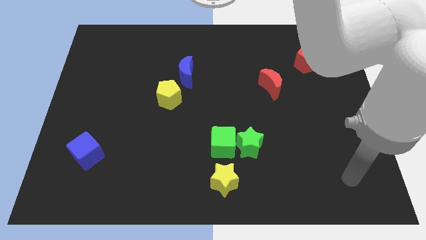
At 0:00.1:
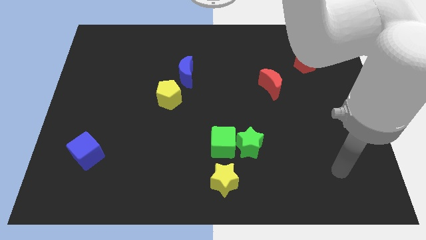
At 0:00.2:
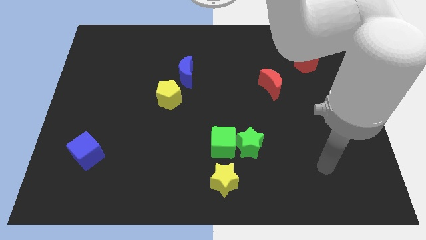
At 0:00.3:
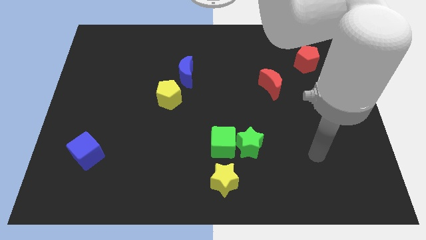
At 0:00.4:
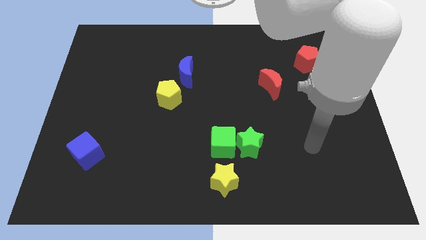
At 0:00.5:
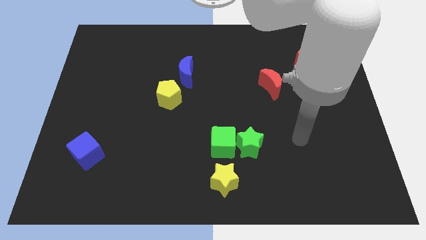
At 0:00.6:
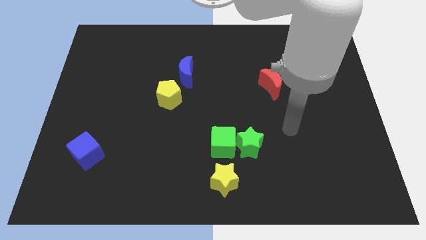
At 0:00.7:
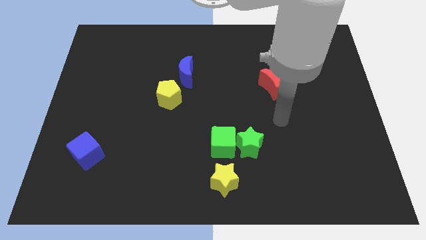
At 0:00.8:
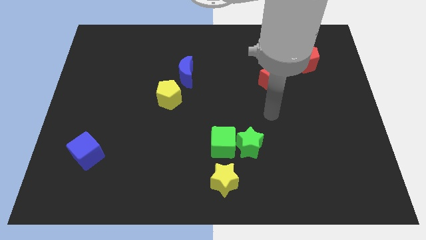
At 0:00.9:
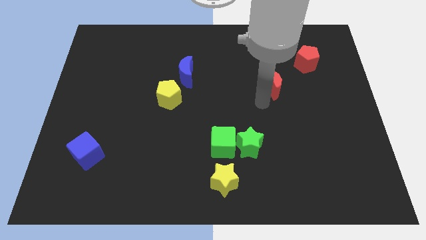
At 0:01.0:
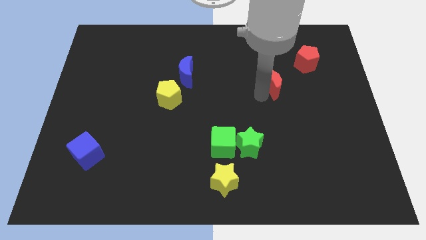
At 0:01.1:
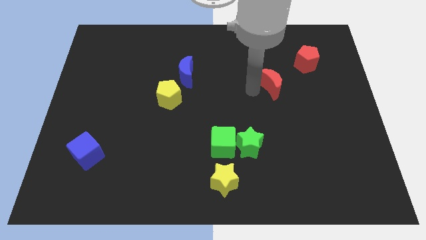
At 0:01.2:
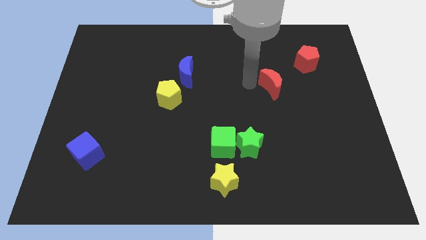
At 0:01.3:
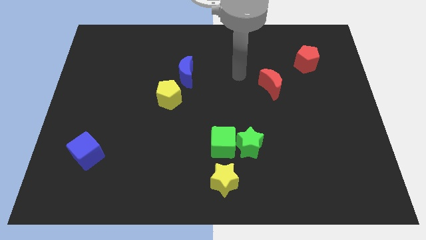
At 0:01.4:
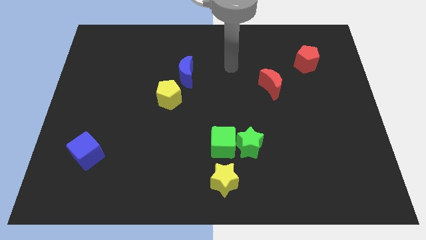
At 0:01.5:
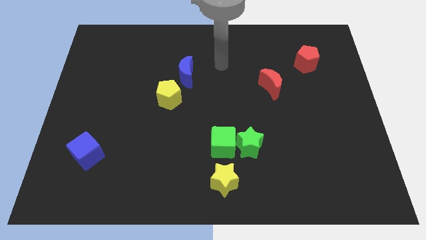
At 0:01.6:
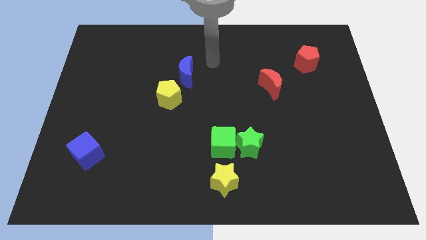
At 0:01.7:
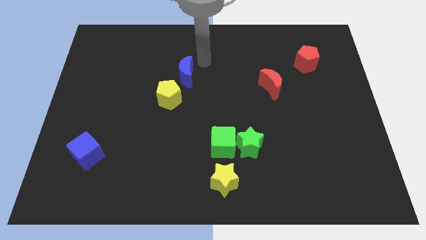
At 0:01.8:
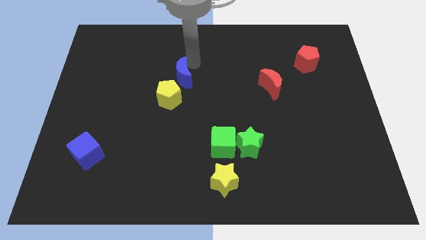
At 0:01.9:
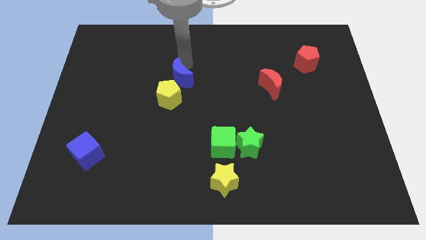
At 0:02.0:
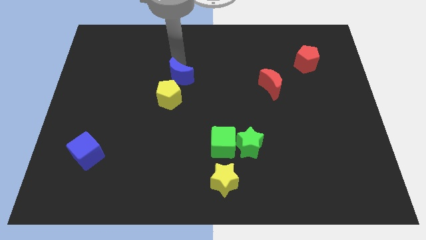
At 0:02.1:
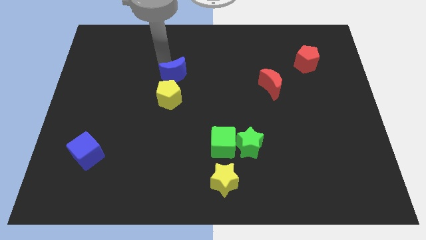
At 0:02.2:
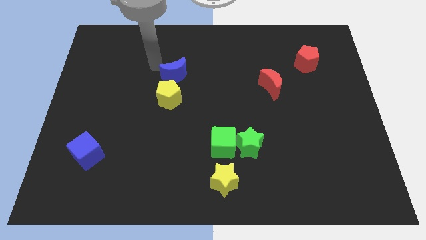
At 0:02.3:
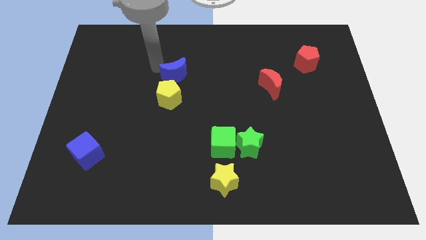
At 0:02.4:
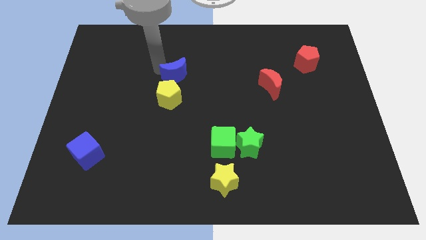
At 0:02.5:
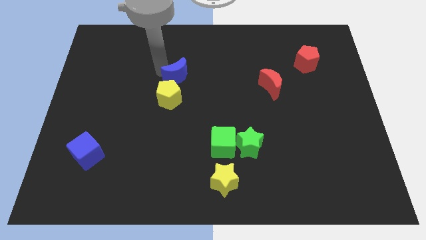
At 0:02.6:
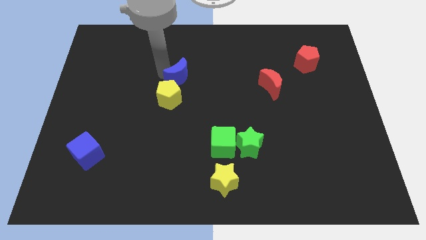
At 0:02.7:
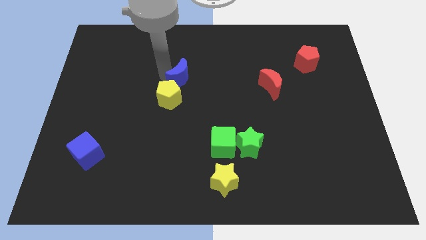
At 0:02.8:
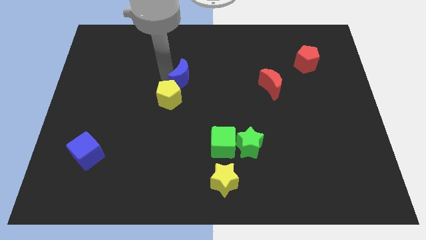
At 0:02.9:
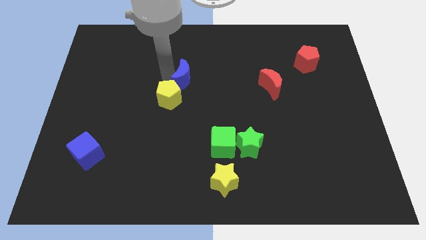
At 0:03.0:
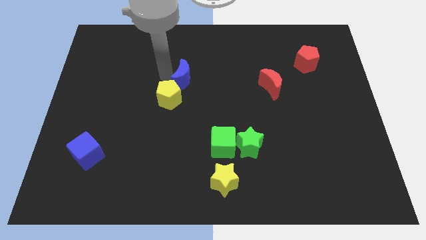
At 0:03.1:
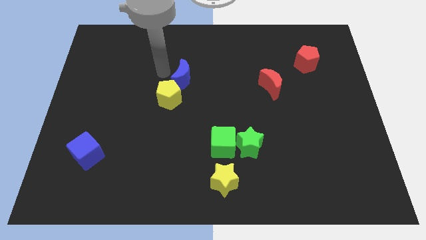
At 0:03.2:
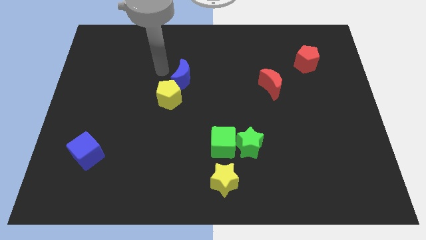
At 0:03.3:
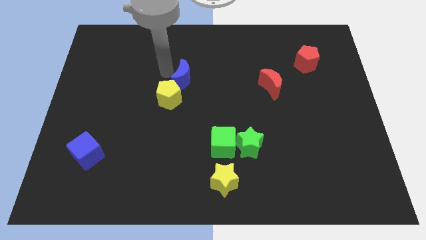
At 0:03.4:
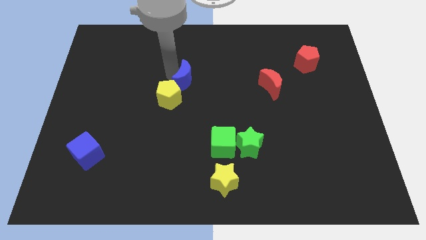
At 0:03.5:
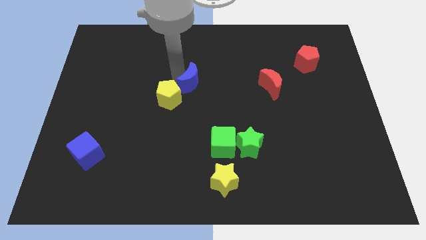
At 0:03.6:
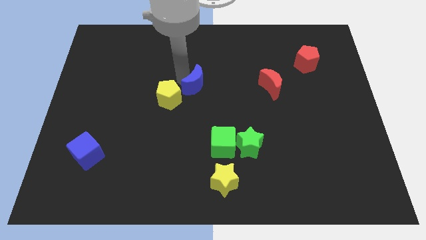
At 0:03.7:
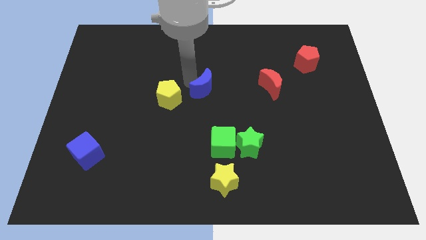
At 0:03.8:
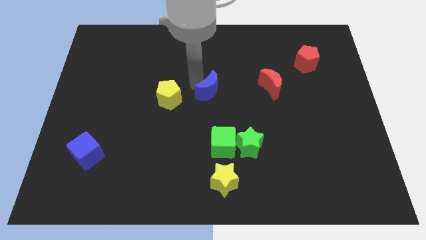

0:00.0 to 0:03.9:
slightly move the blue moon diagonally downwards and to the right

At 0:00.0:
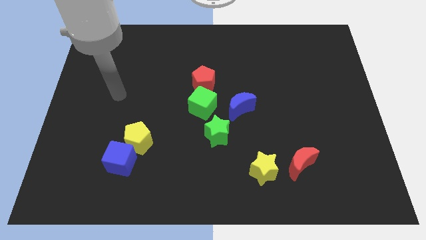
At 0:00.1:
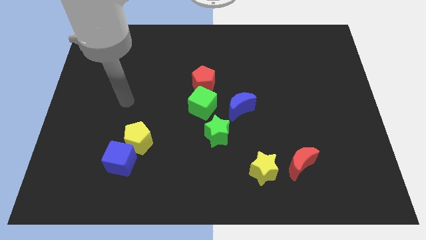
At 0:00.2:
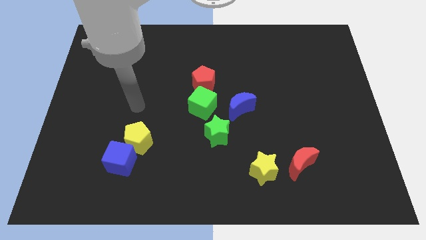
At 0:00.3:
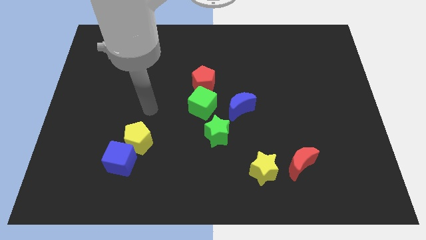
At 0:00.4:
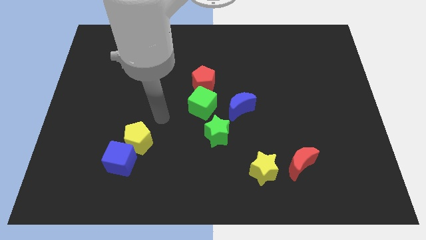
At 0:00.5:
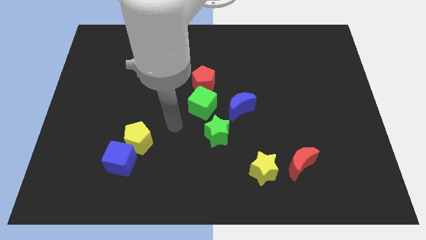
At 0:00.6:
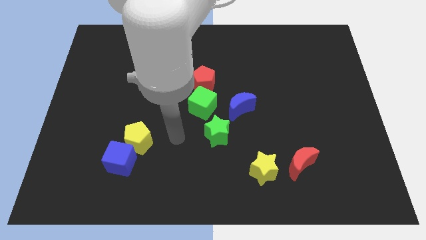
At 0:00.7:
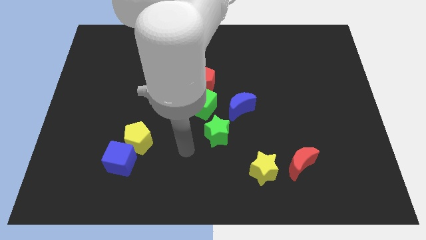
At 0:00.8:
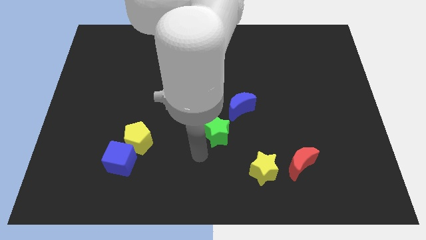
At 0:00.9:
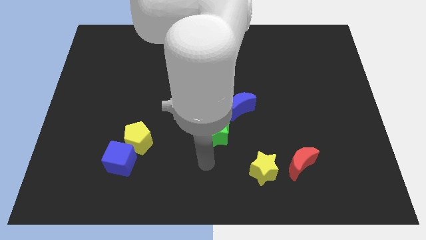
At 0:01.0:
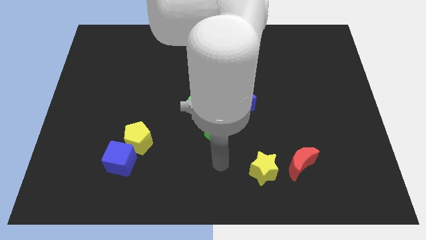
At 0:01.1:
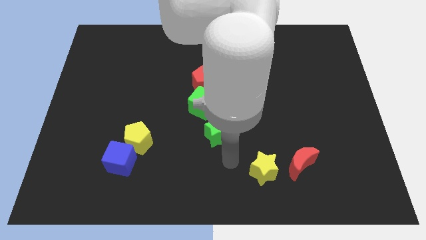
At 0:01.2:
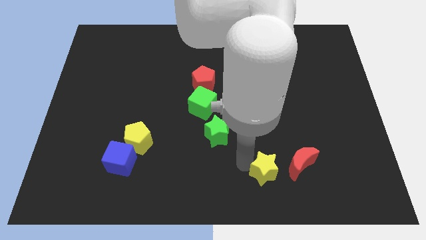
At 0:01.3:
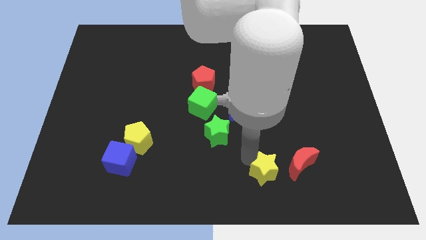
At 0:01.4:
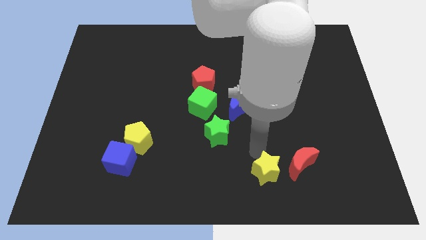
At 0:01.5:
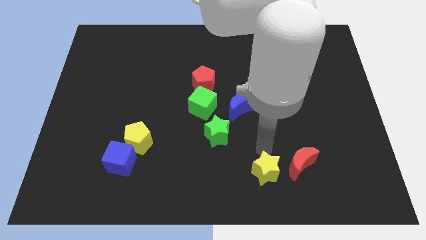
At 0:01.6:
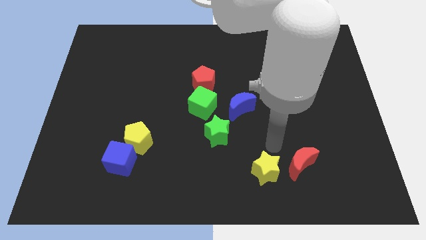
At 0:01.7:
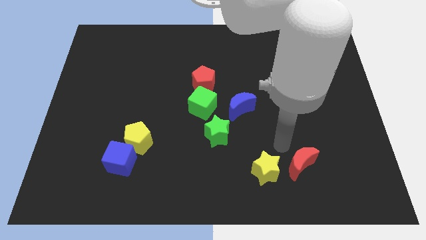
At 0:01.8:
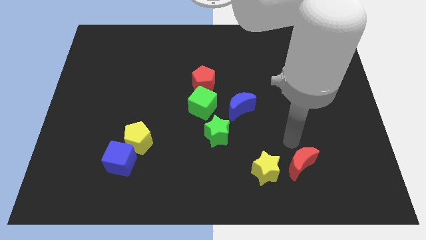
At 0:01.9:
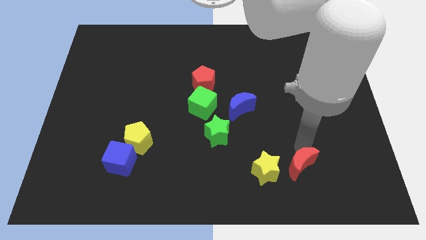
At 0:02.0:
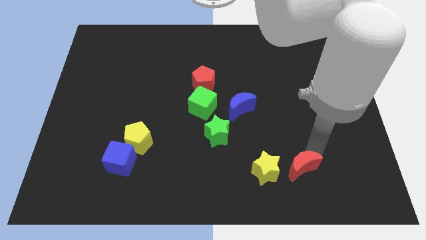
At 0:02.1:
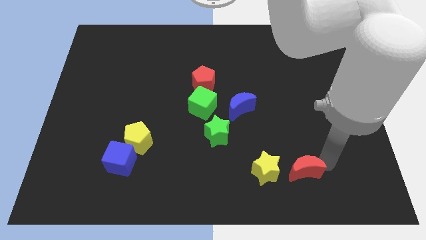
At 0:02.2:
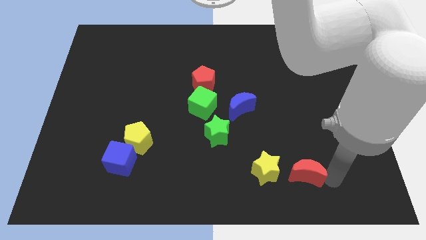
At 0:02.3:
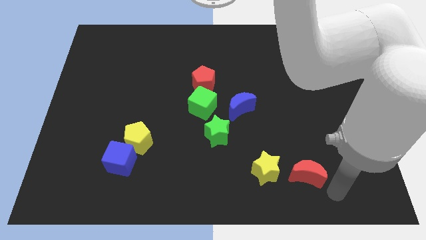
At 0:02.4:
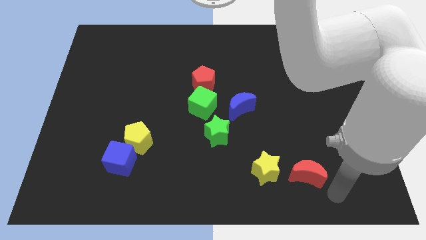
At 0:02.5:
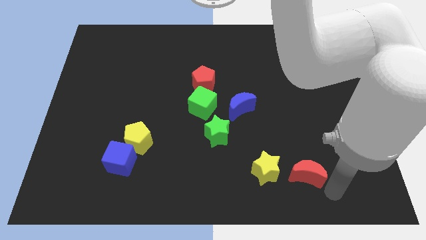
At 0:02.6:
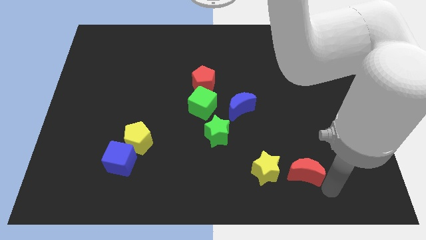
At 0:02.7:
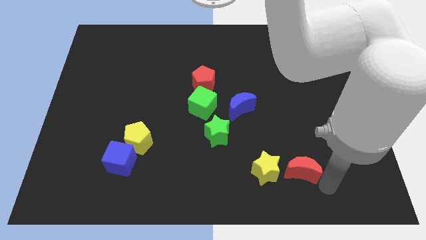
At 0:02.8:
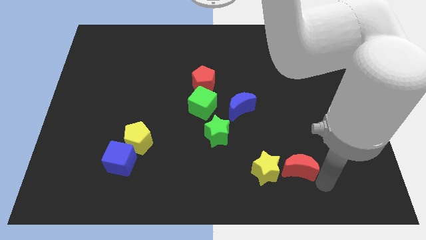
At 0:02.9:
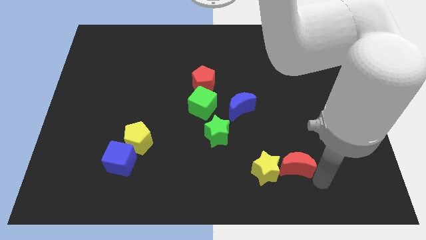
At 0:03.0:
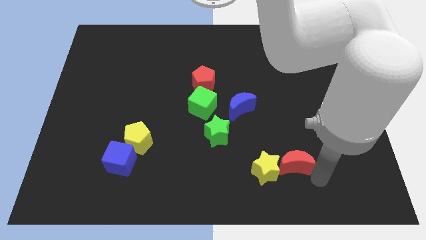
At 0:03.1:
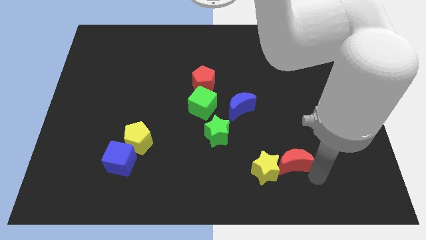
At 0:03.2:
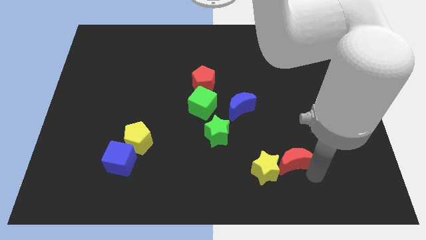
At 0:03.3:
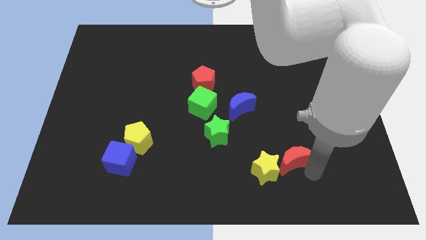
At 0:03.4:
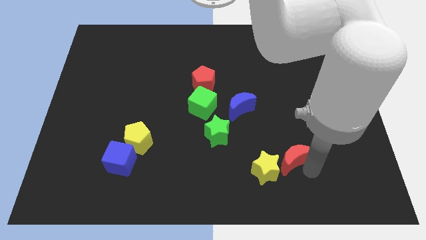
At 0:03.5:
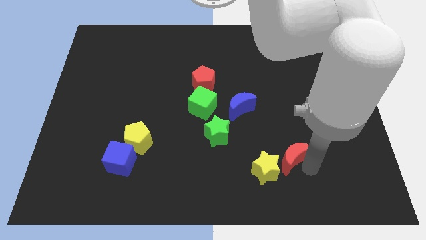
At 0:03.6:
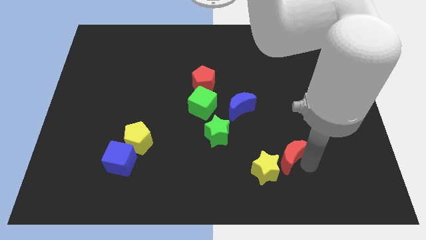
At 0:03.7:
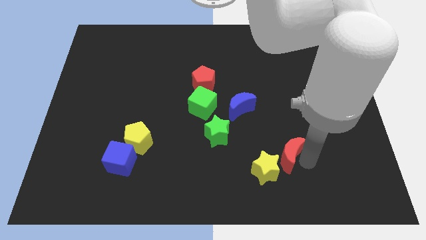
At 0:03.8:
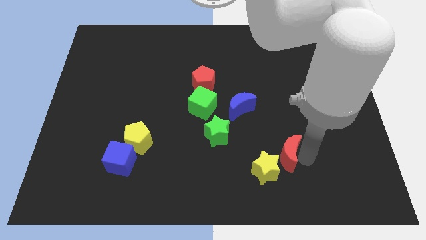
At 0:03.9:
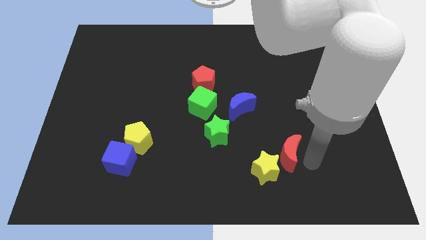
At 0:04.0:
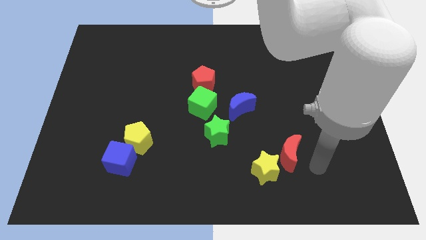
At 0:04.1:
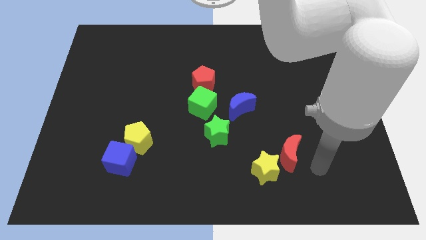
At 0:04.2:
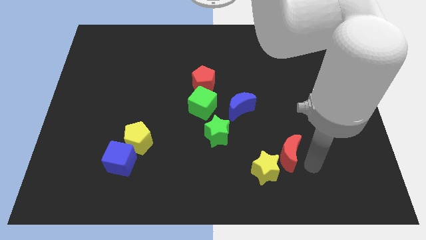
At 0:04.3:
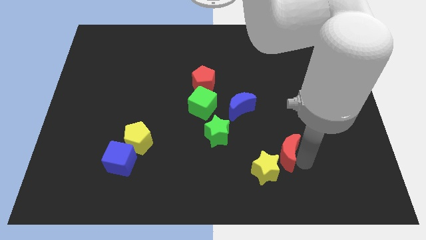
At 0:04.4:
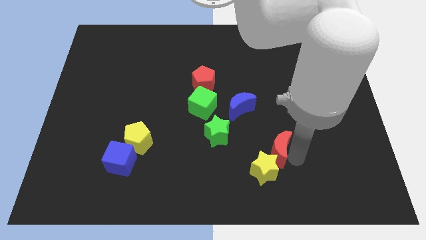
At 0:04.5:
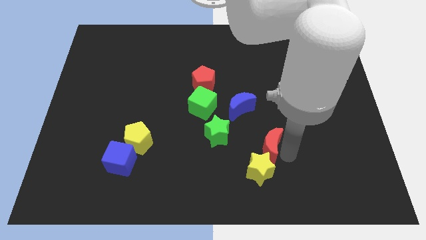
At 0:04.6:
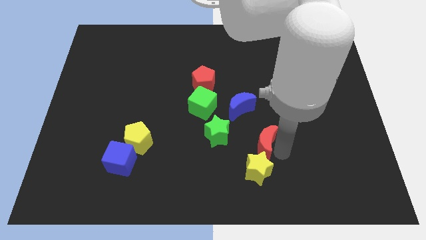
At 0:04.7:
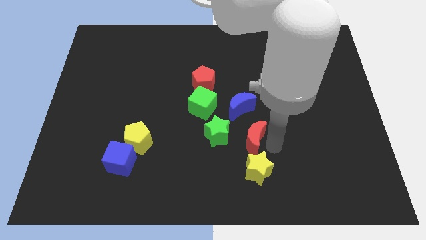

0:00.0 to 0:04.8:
slide the red moon left a bit
